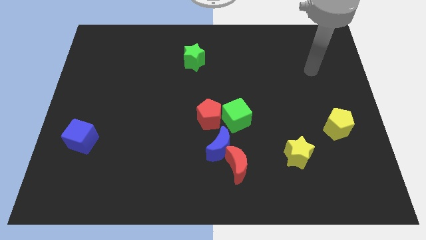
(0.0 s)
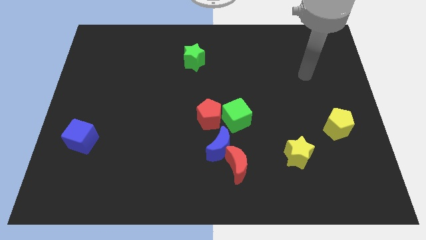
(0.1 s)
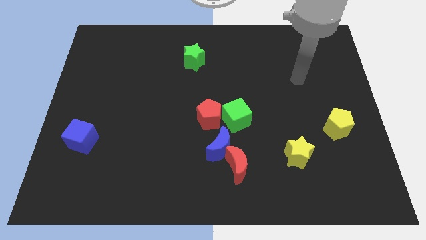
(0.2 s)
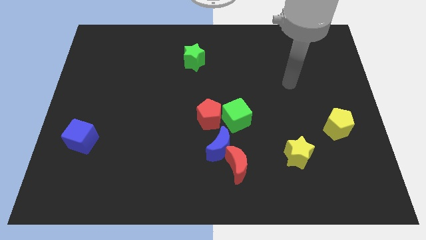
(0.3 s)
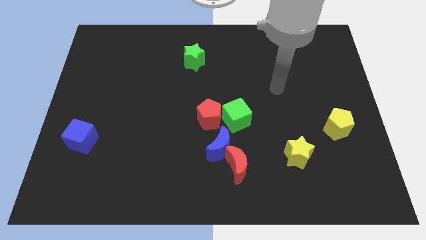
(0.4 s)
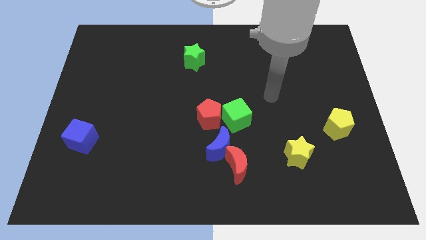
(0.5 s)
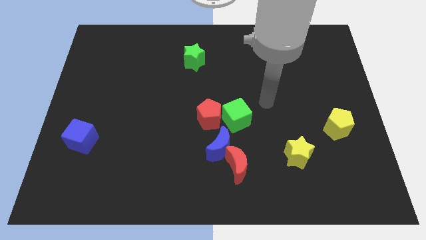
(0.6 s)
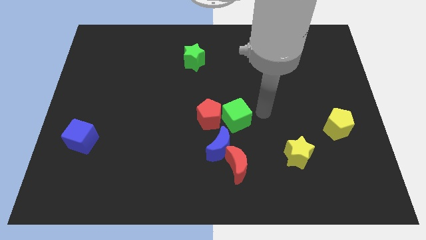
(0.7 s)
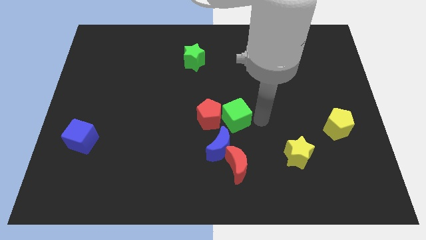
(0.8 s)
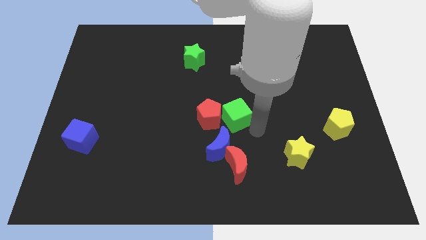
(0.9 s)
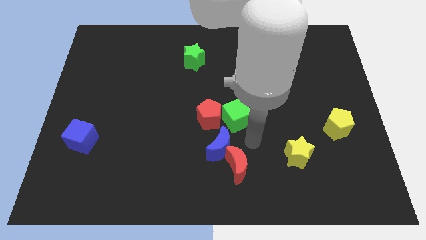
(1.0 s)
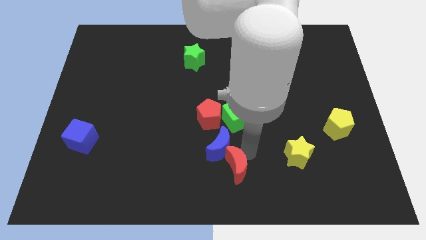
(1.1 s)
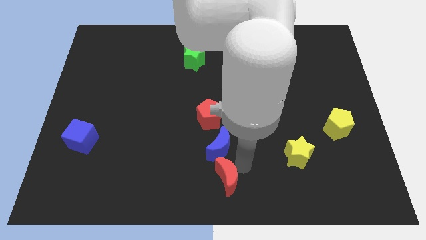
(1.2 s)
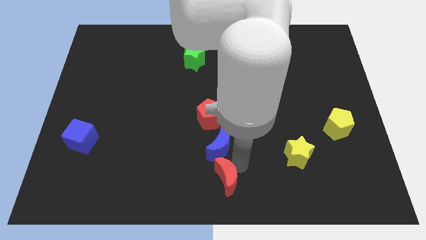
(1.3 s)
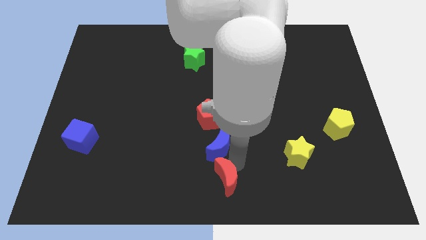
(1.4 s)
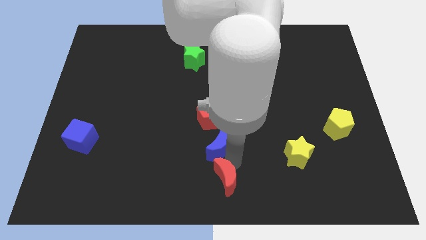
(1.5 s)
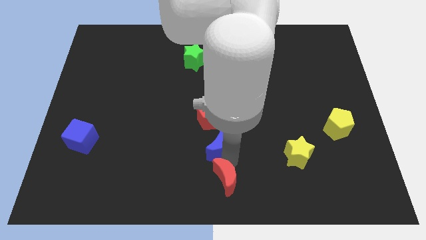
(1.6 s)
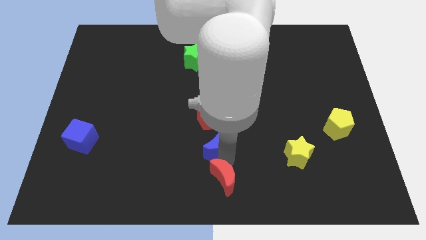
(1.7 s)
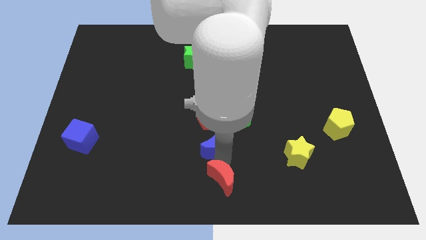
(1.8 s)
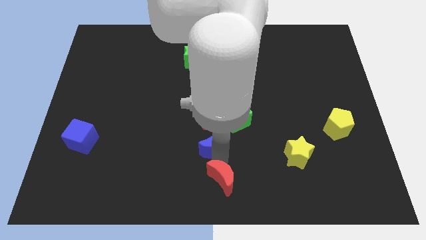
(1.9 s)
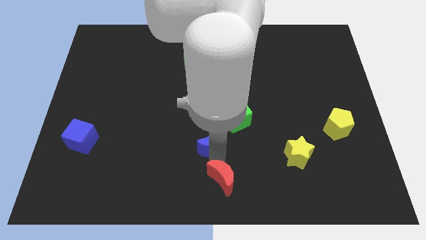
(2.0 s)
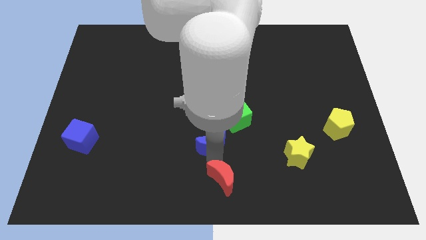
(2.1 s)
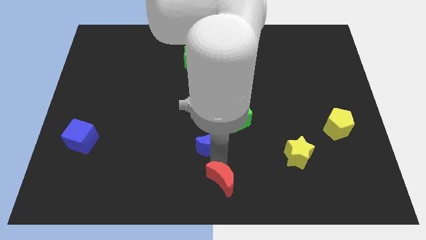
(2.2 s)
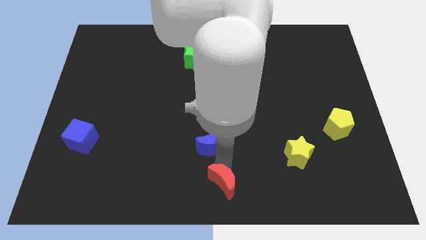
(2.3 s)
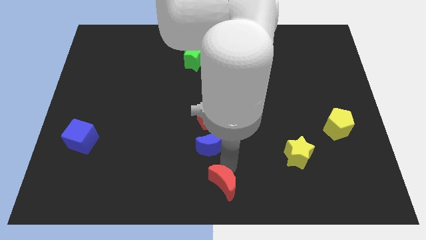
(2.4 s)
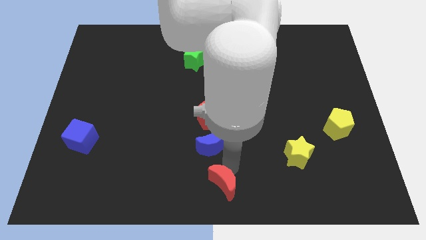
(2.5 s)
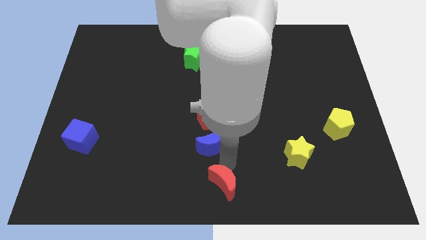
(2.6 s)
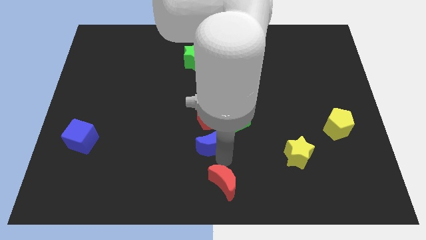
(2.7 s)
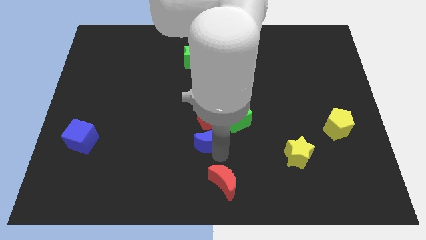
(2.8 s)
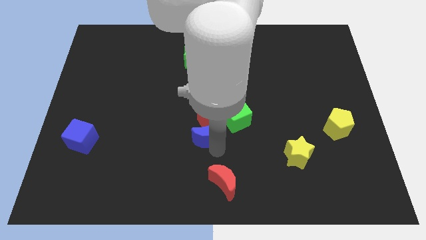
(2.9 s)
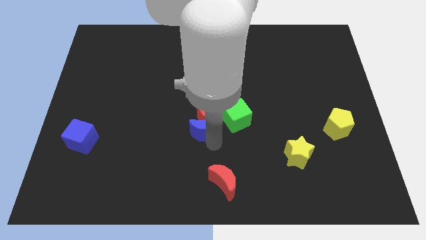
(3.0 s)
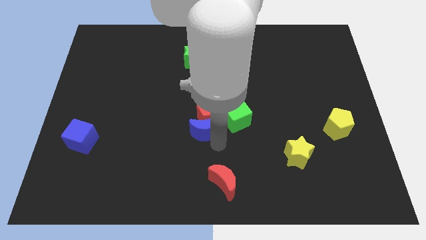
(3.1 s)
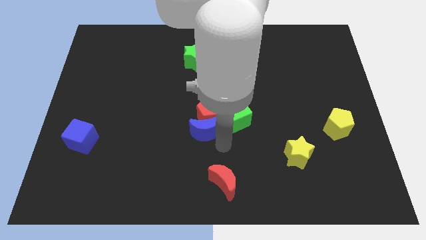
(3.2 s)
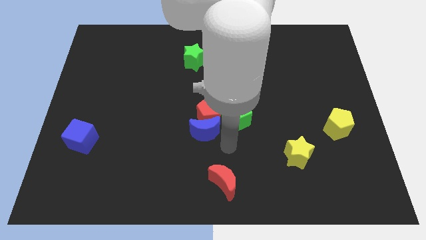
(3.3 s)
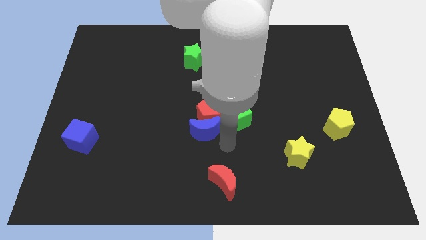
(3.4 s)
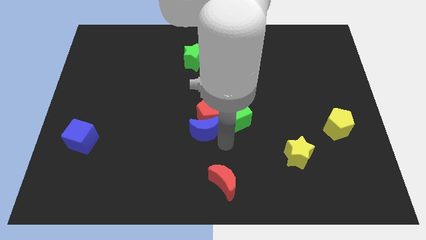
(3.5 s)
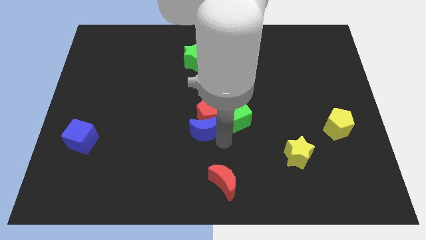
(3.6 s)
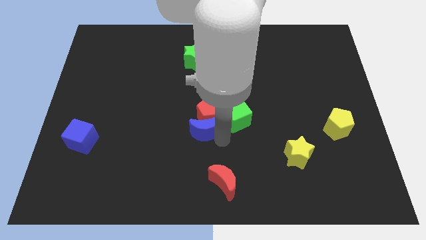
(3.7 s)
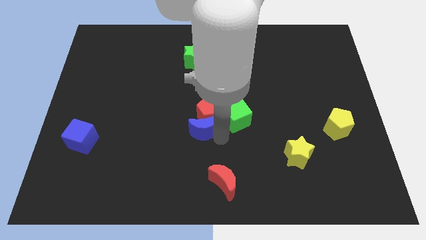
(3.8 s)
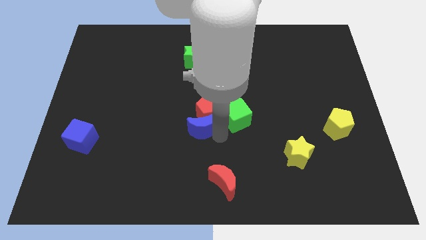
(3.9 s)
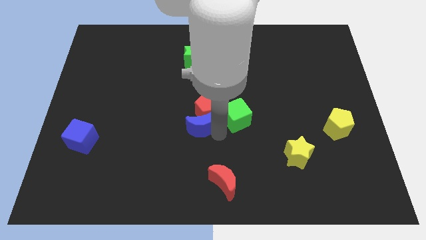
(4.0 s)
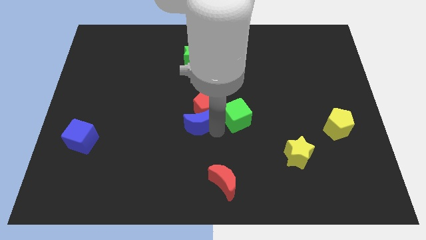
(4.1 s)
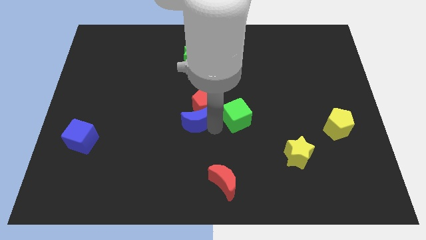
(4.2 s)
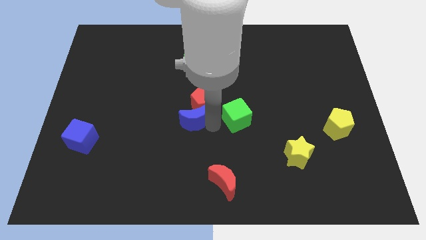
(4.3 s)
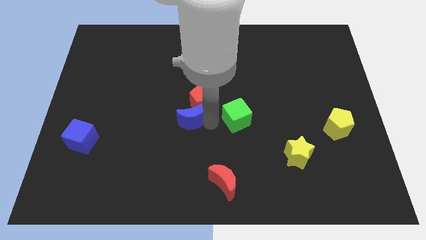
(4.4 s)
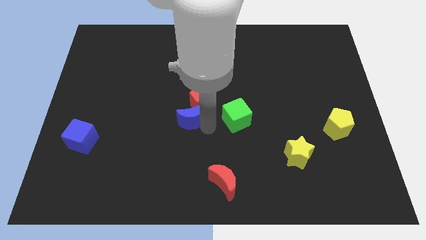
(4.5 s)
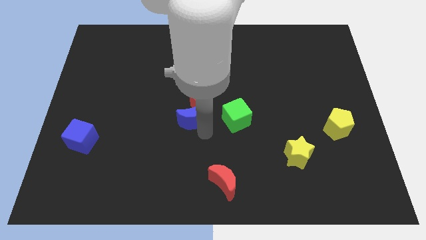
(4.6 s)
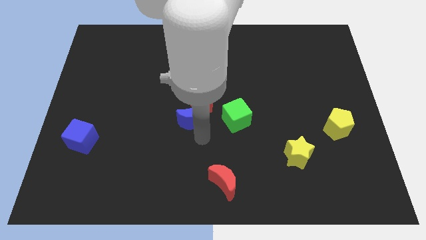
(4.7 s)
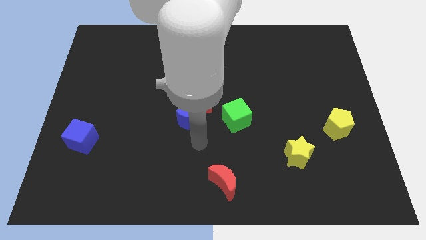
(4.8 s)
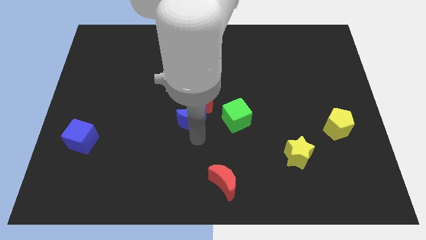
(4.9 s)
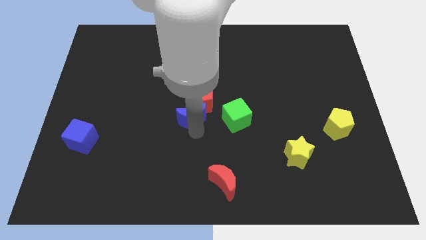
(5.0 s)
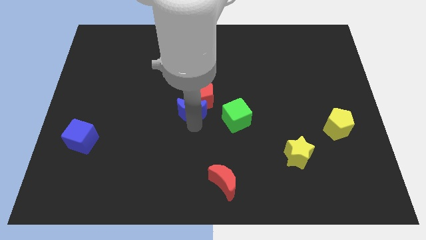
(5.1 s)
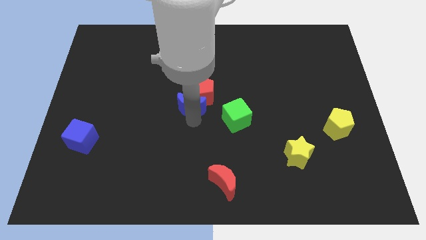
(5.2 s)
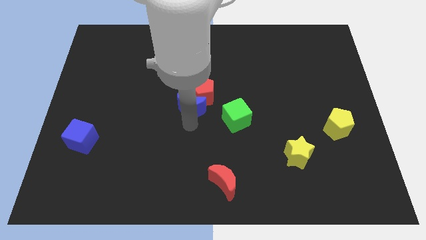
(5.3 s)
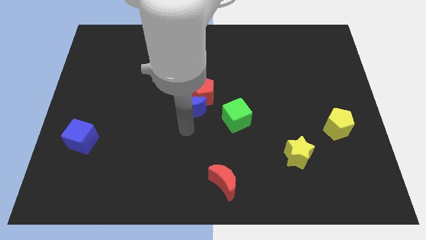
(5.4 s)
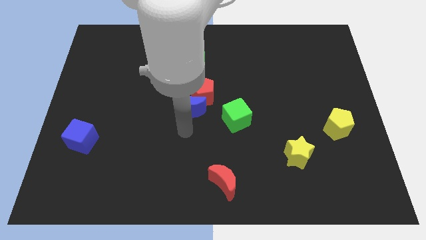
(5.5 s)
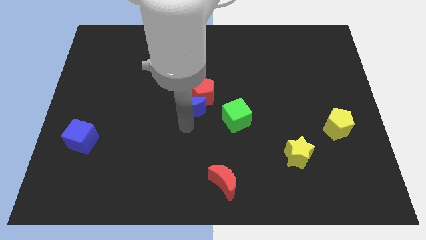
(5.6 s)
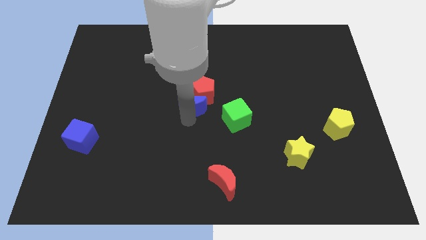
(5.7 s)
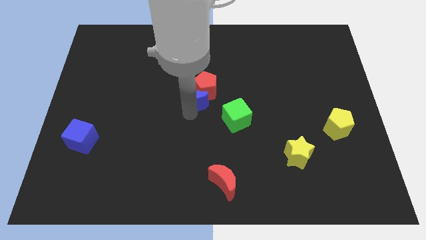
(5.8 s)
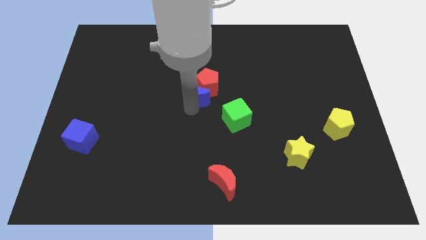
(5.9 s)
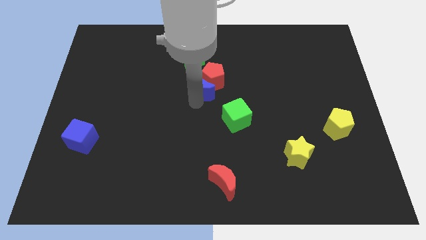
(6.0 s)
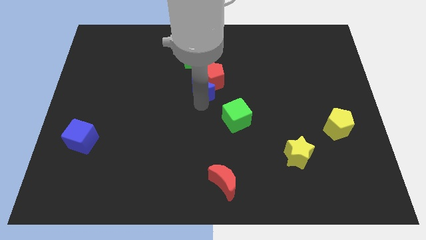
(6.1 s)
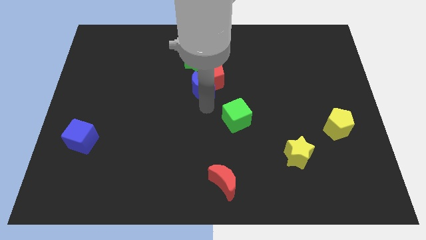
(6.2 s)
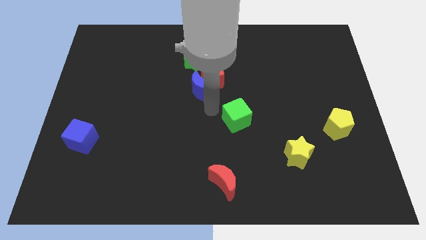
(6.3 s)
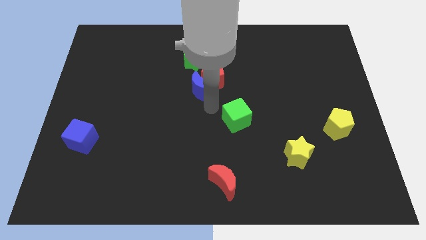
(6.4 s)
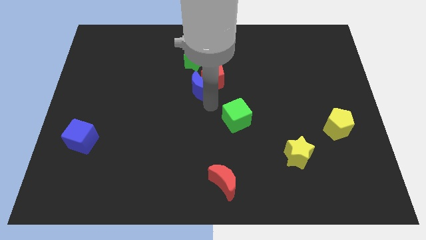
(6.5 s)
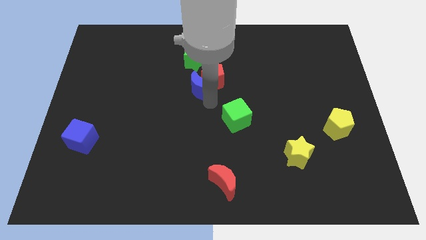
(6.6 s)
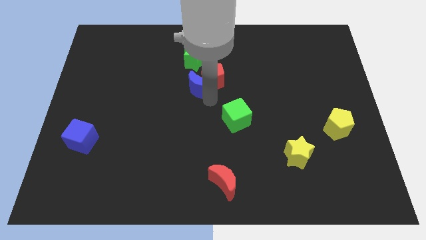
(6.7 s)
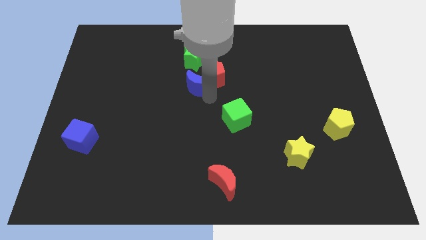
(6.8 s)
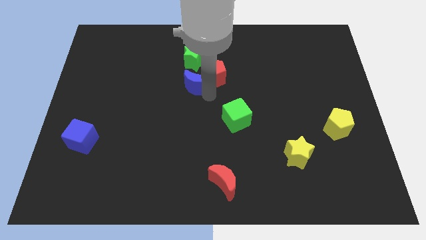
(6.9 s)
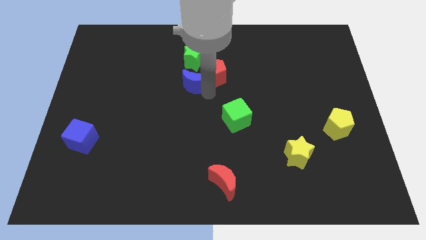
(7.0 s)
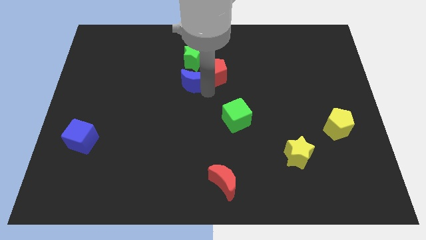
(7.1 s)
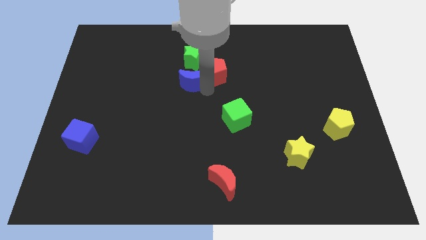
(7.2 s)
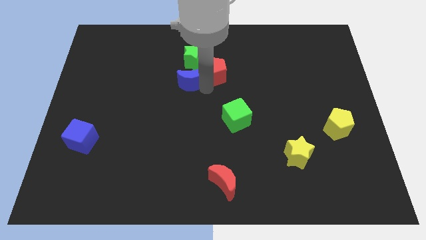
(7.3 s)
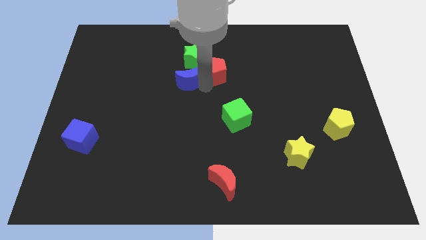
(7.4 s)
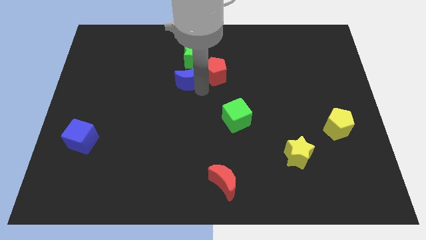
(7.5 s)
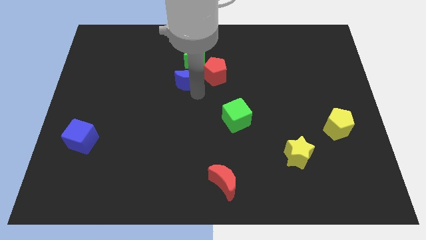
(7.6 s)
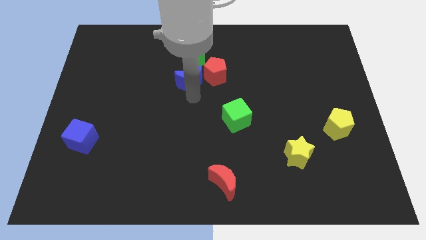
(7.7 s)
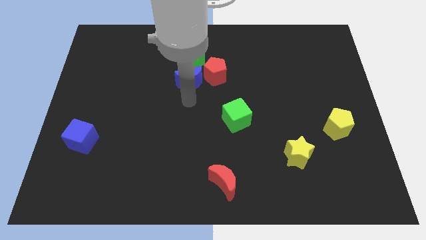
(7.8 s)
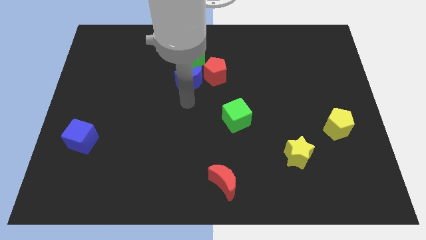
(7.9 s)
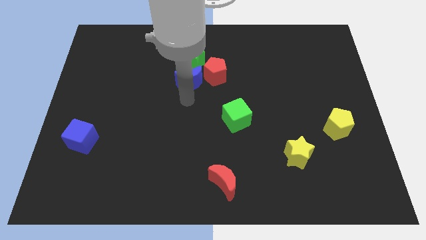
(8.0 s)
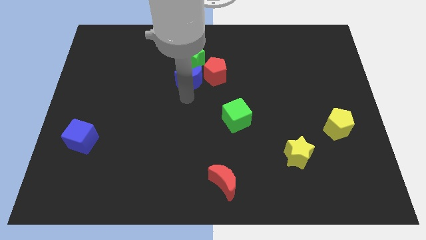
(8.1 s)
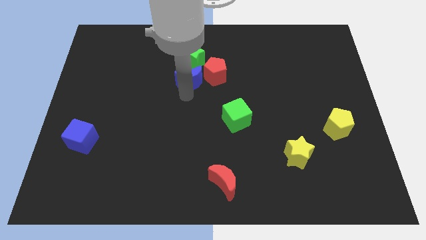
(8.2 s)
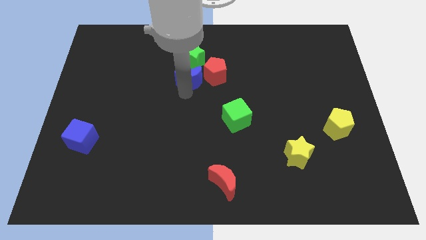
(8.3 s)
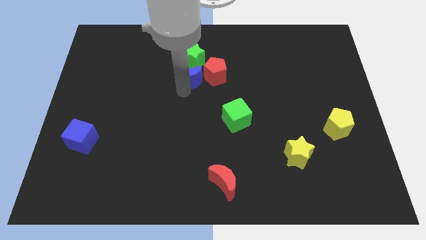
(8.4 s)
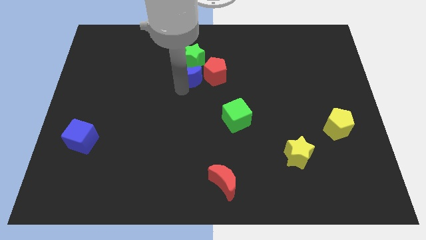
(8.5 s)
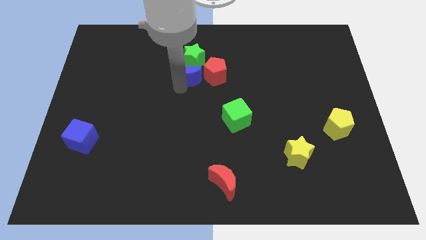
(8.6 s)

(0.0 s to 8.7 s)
push the blue moon close to the green star
